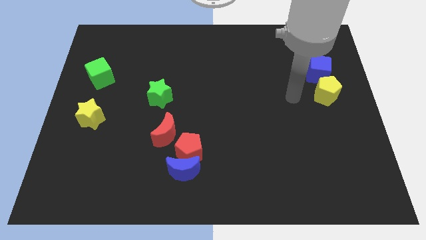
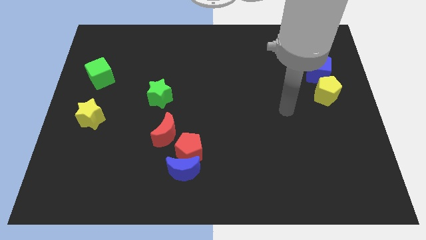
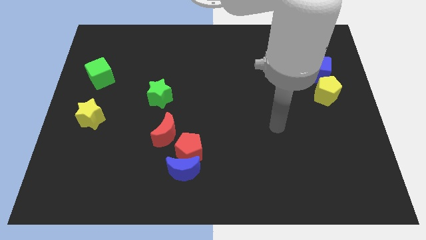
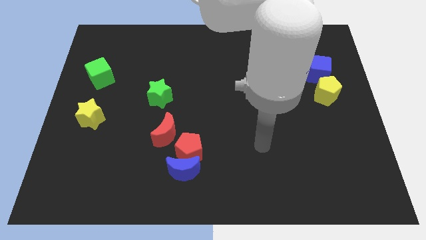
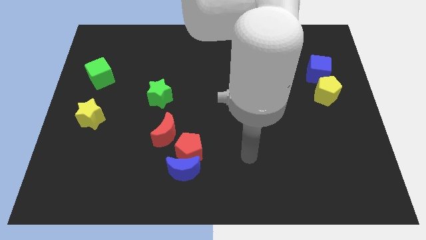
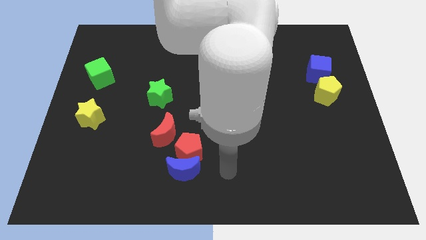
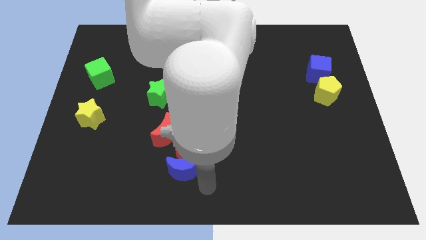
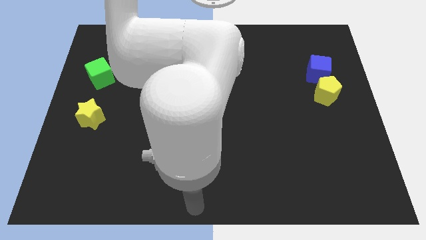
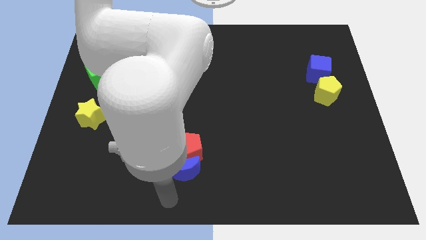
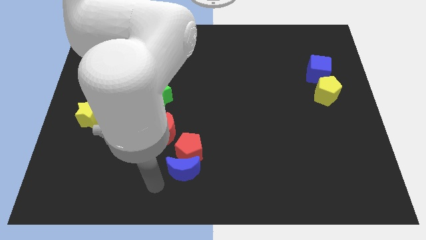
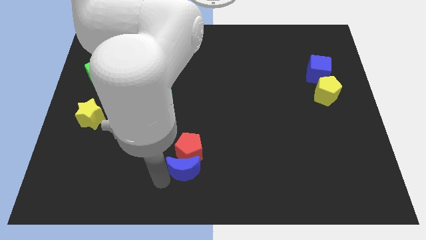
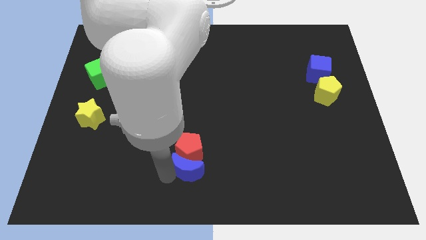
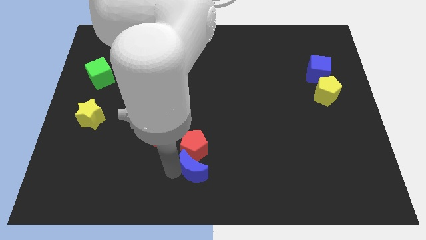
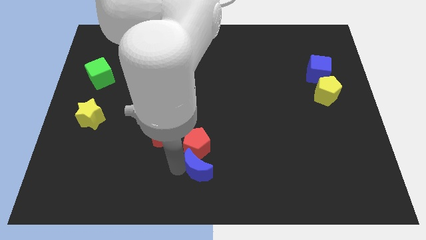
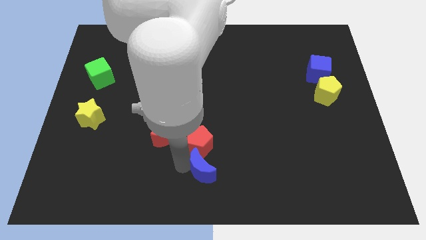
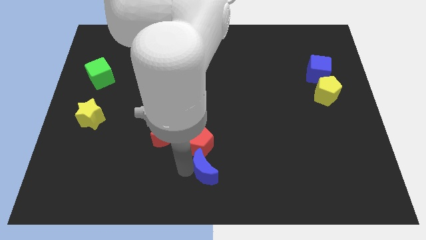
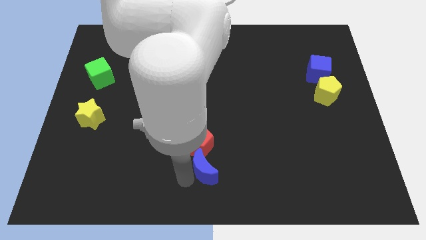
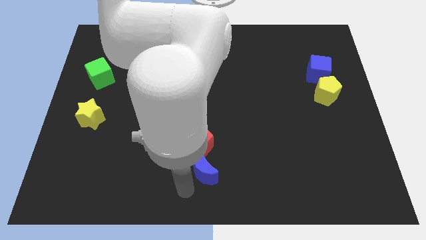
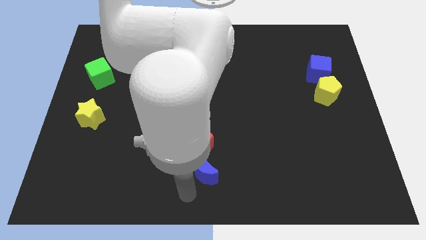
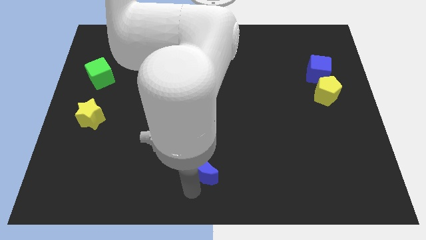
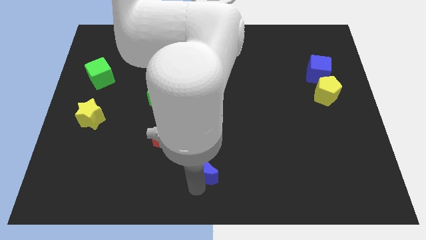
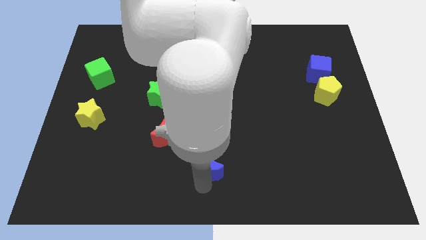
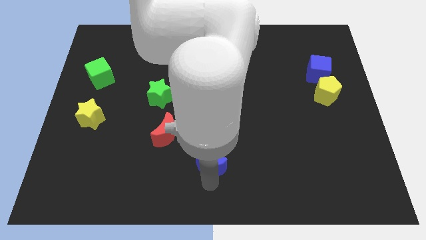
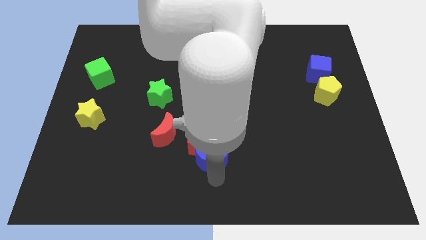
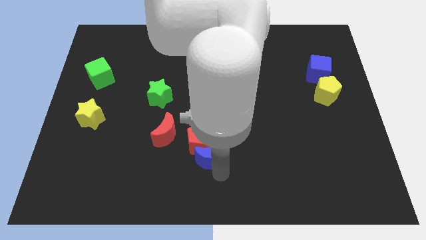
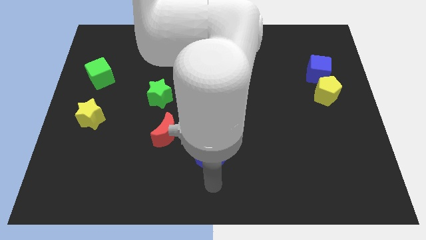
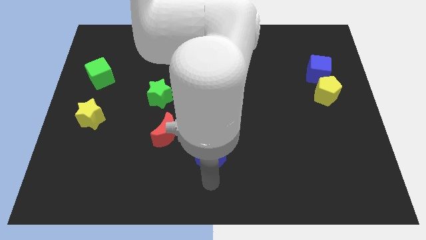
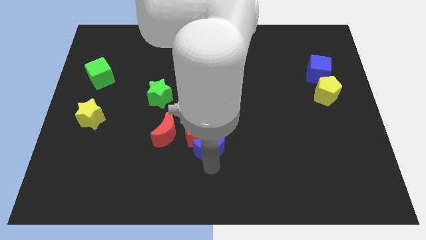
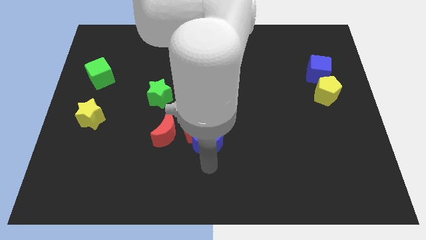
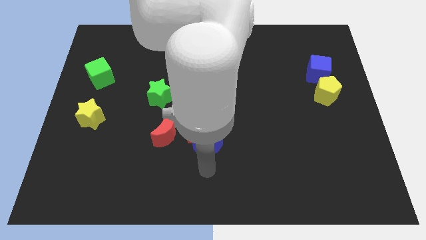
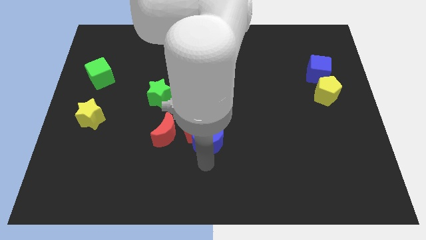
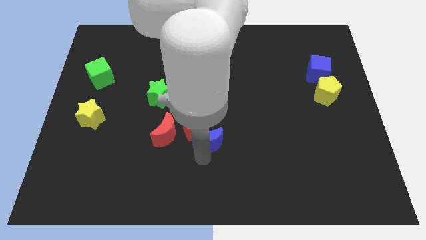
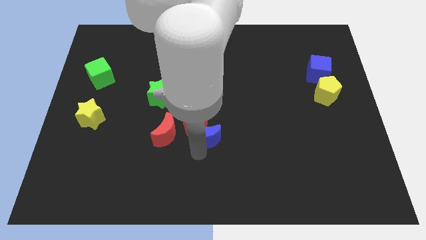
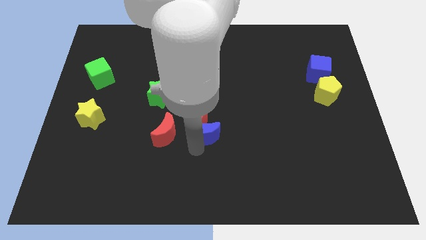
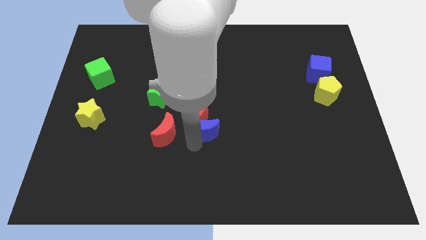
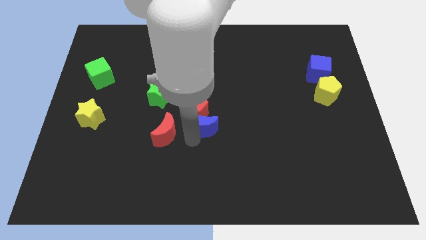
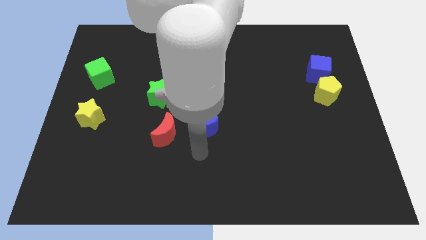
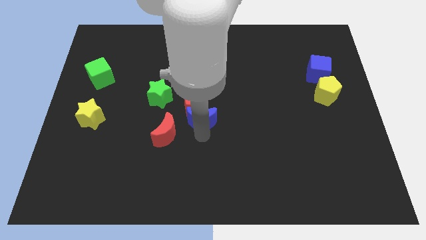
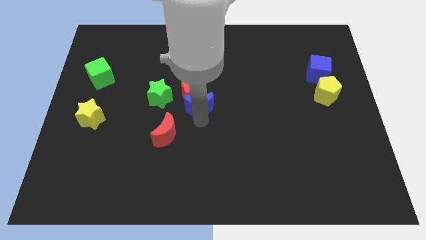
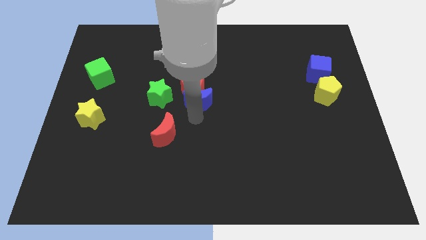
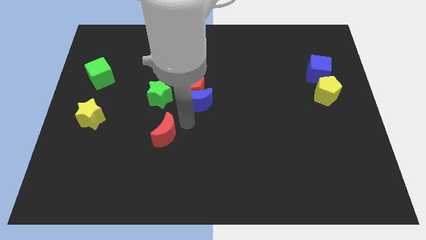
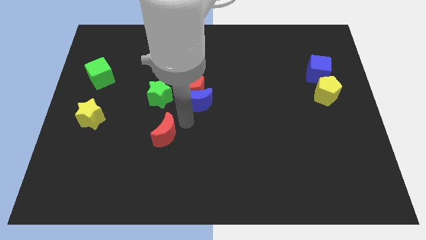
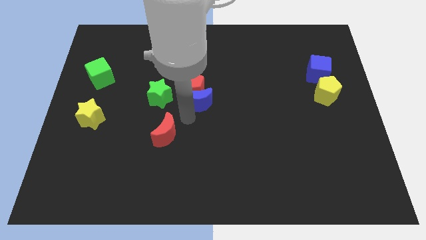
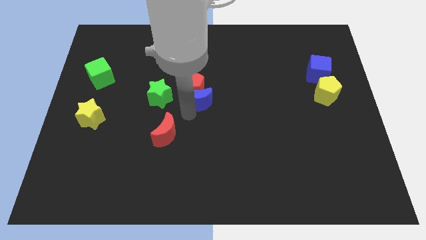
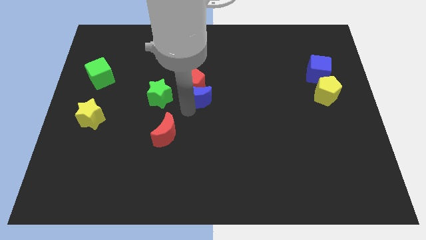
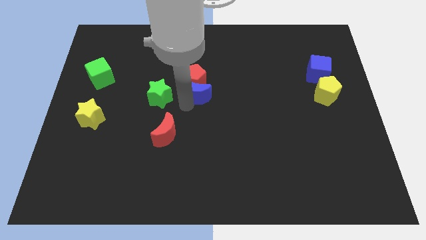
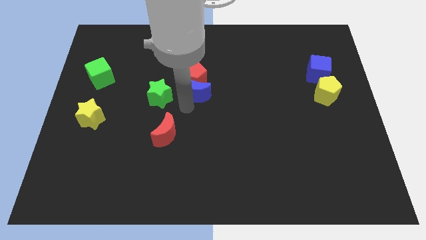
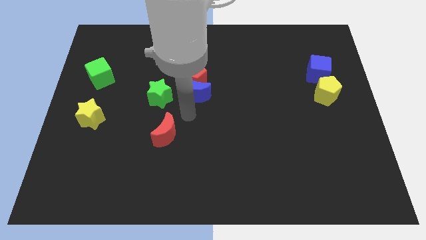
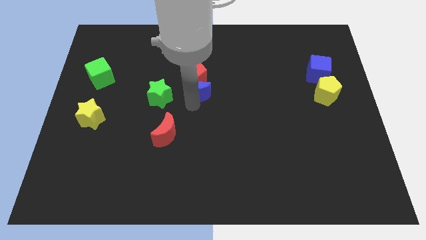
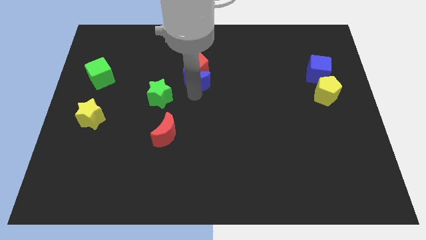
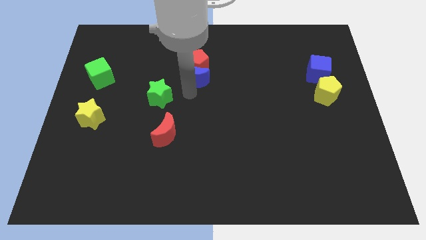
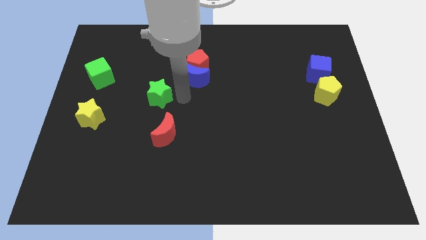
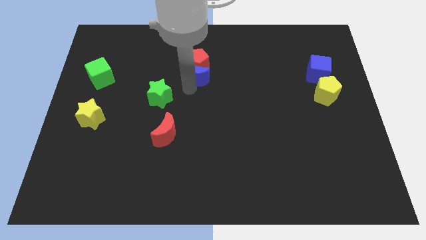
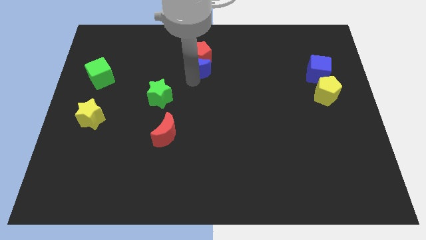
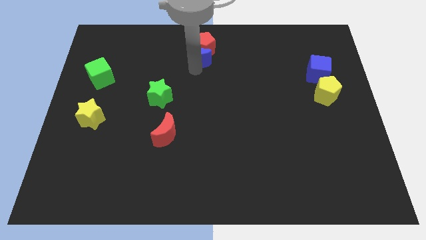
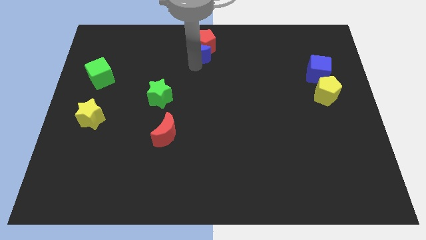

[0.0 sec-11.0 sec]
move the blue moon to the top

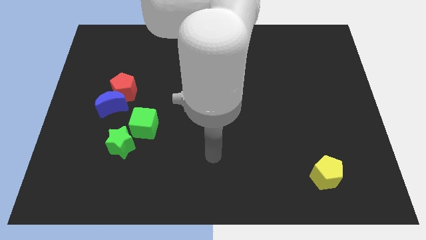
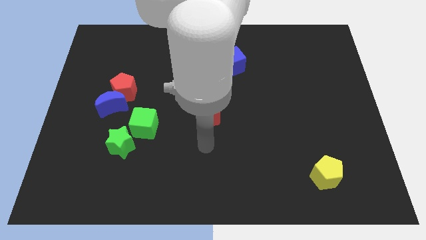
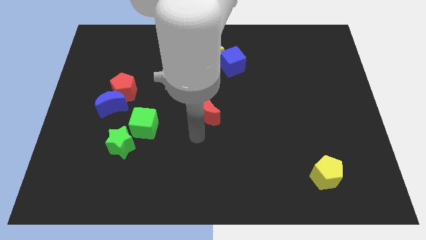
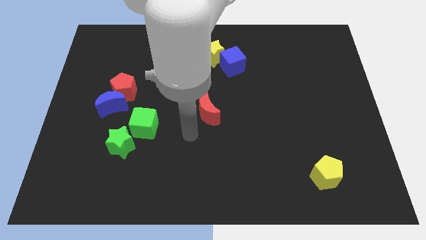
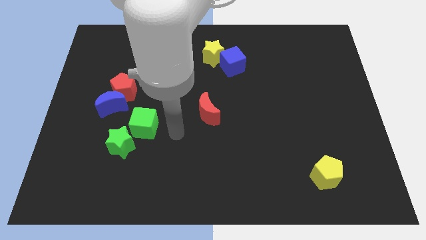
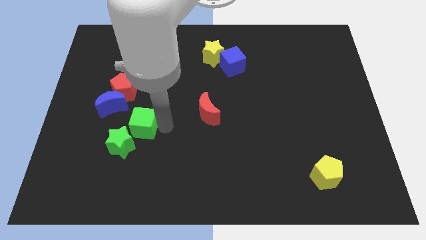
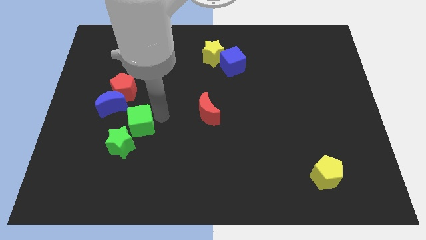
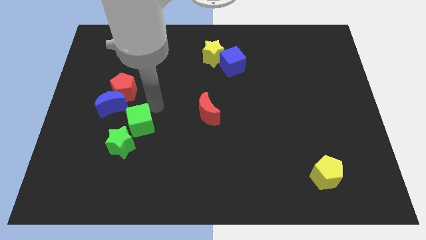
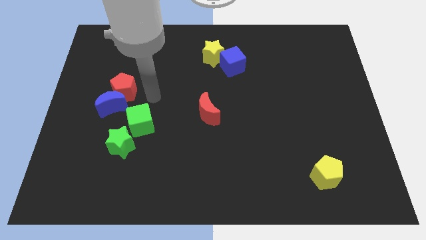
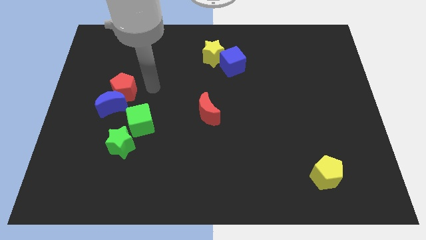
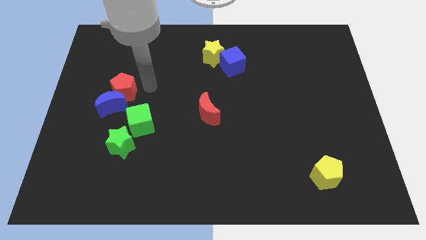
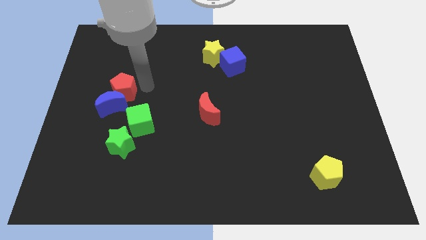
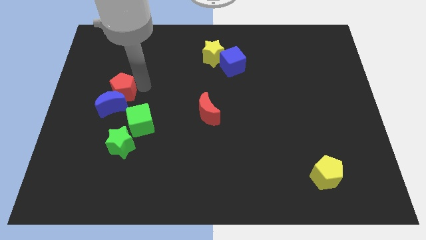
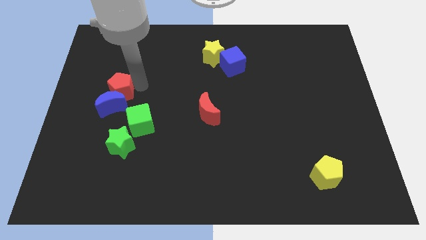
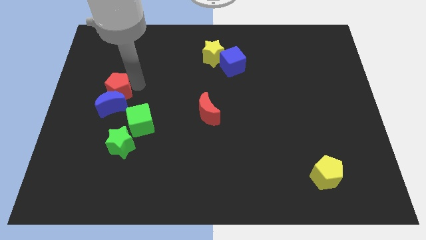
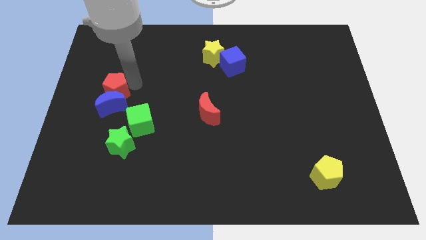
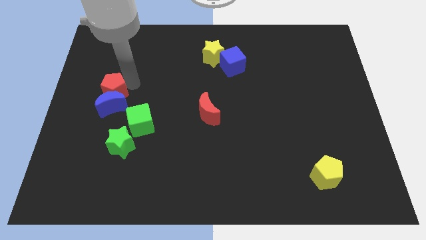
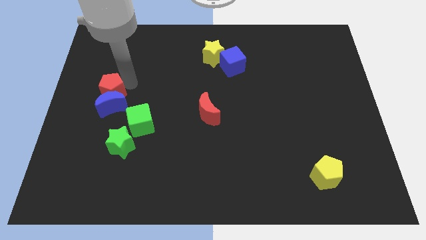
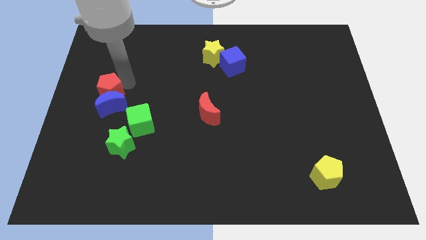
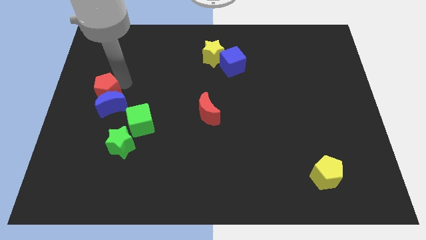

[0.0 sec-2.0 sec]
move the red pentagon to the center left

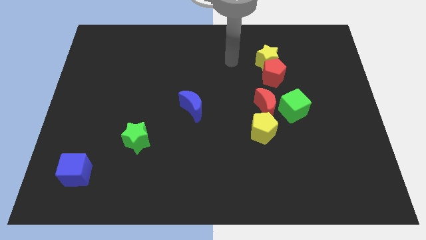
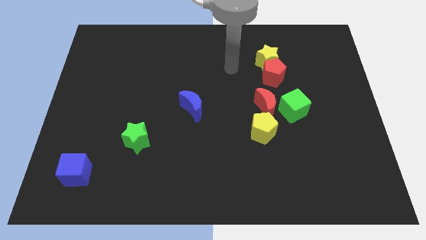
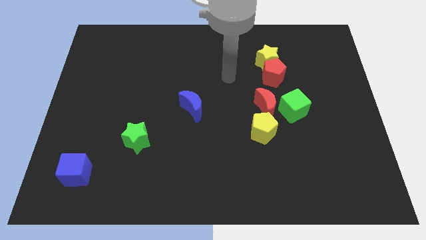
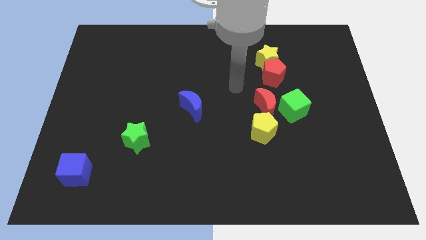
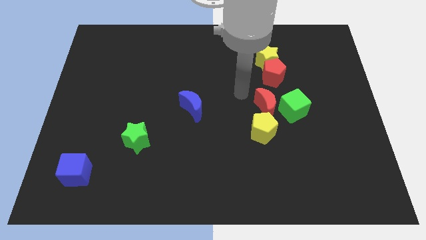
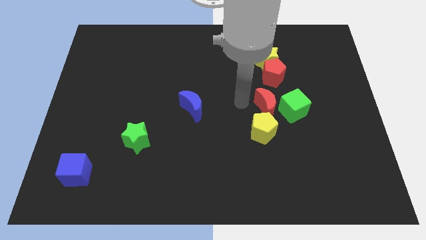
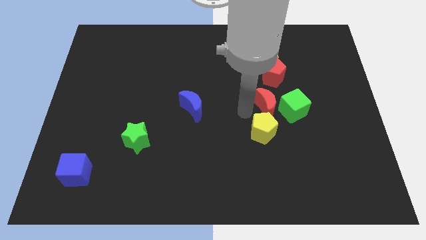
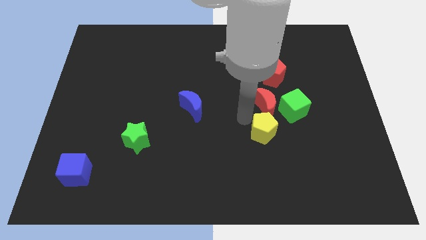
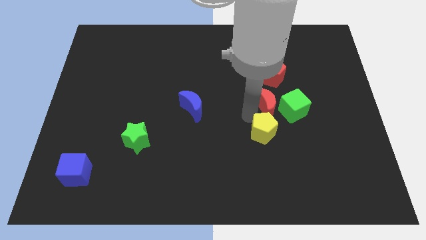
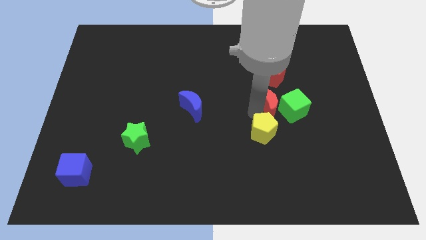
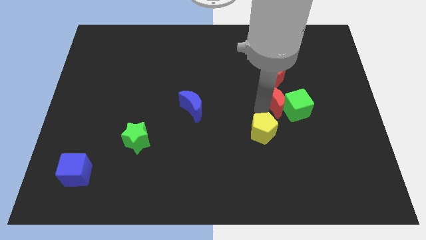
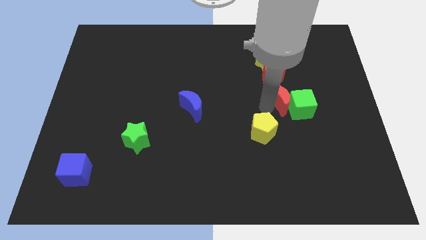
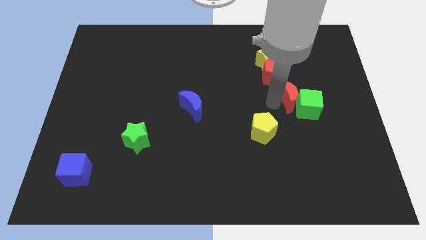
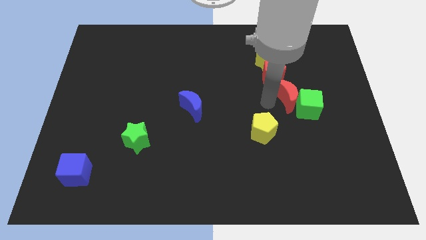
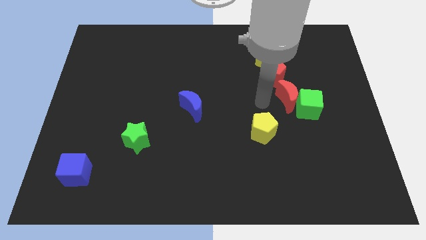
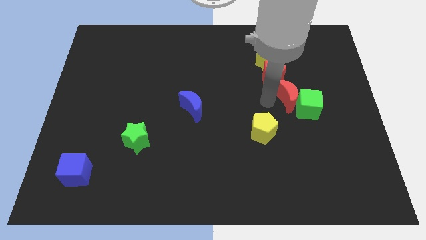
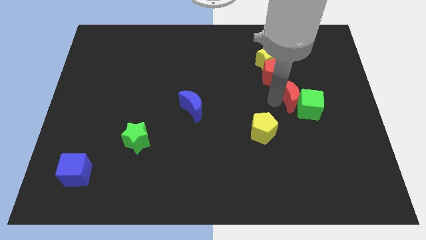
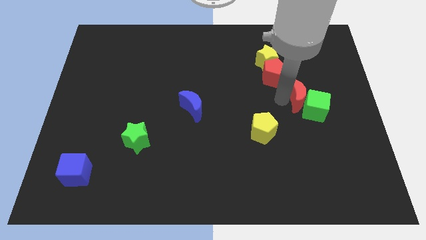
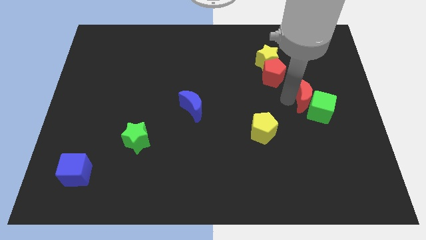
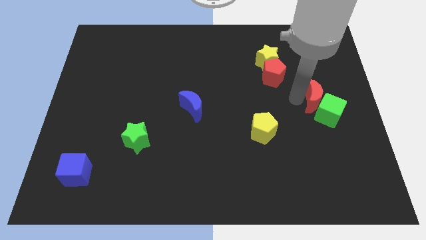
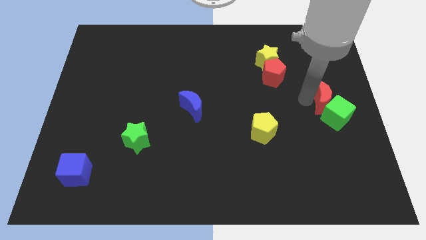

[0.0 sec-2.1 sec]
put the red moon to the right side
